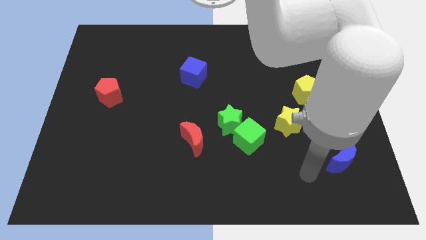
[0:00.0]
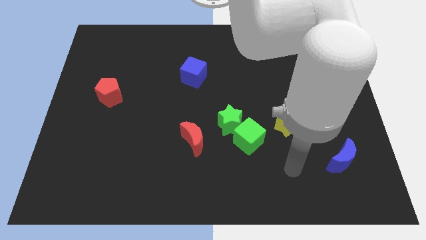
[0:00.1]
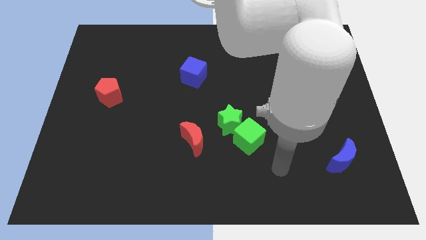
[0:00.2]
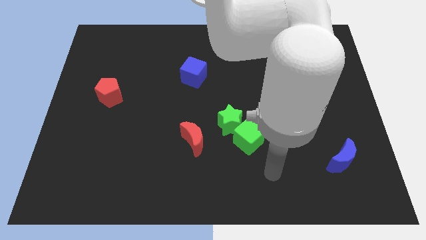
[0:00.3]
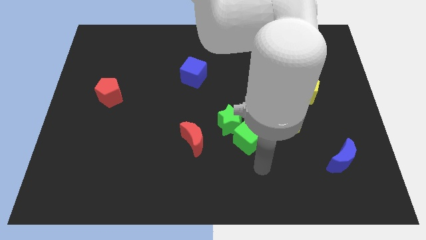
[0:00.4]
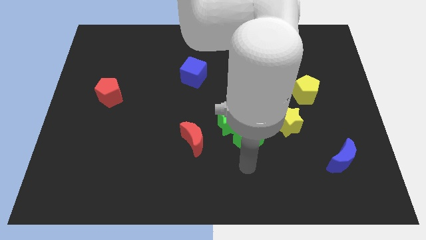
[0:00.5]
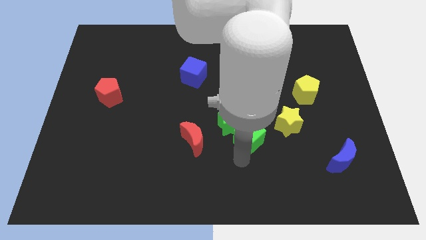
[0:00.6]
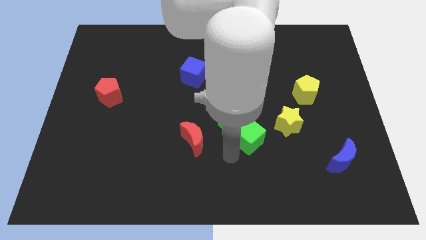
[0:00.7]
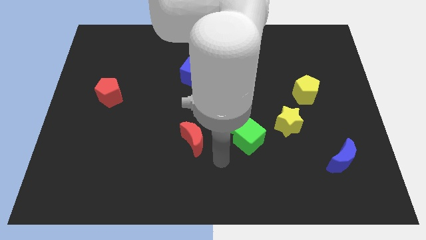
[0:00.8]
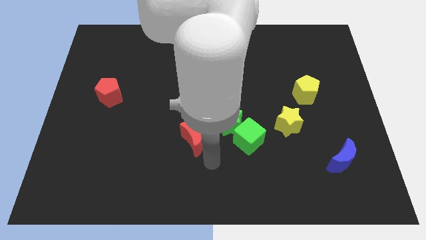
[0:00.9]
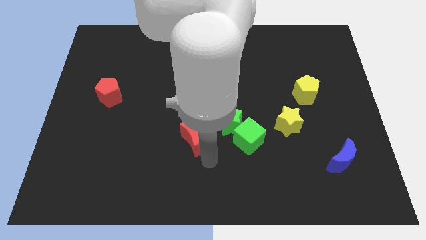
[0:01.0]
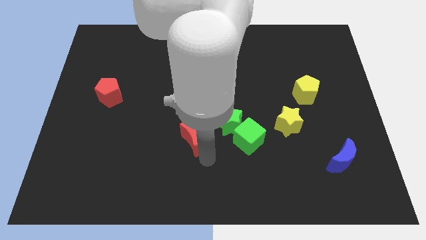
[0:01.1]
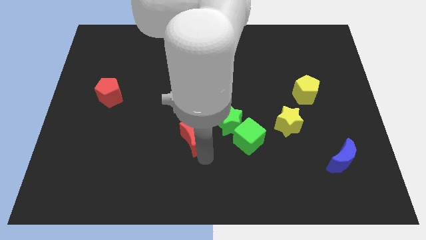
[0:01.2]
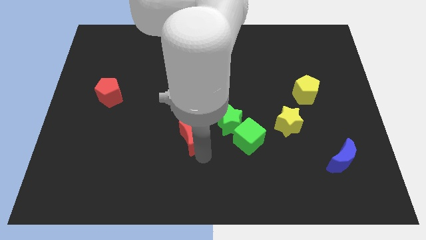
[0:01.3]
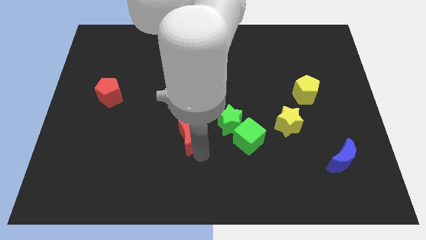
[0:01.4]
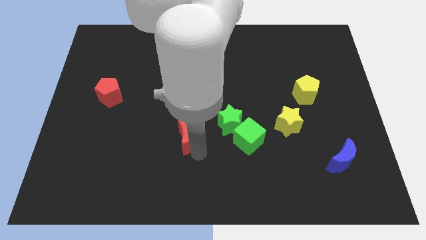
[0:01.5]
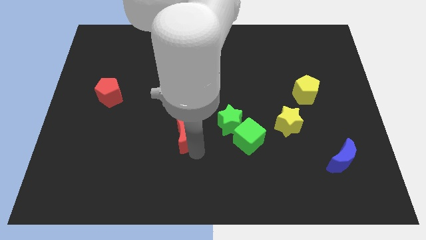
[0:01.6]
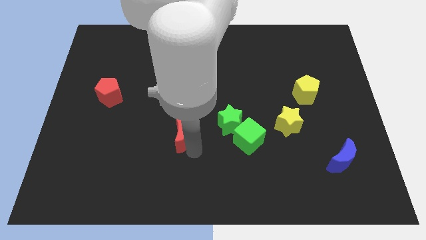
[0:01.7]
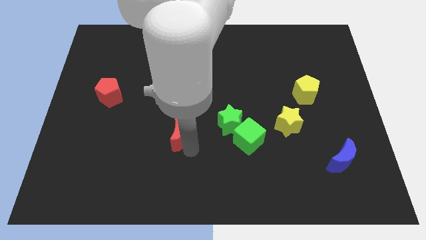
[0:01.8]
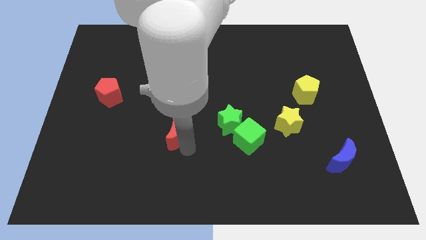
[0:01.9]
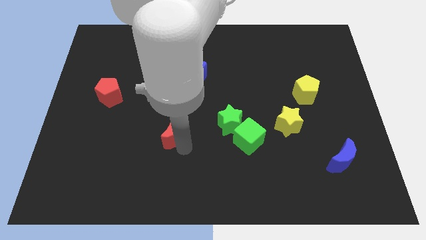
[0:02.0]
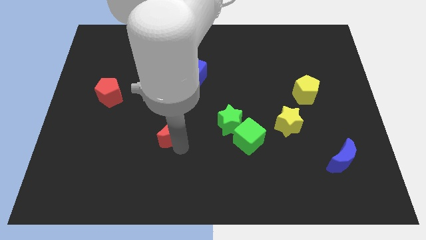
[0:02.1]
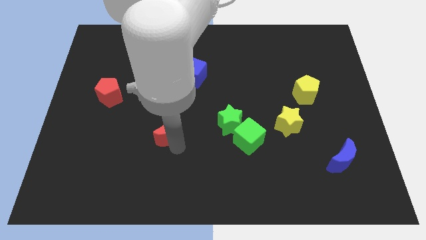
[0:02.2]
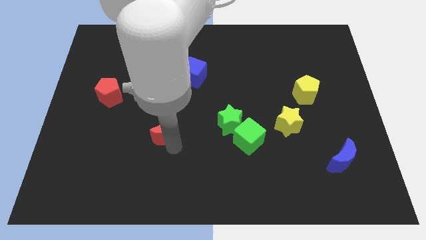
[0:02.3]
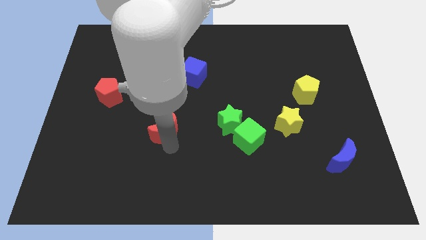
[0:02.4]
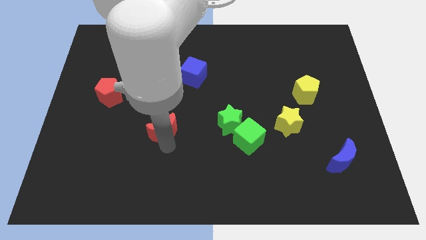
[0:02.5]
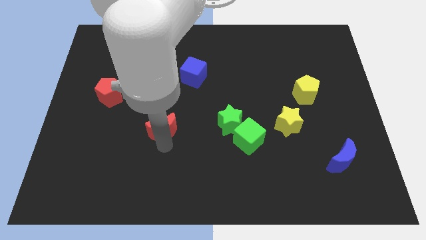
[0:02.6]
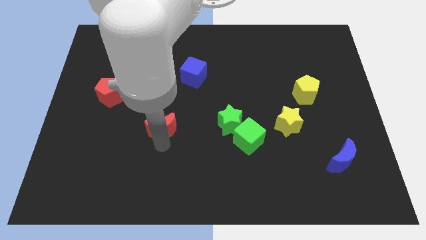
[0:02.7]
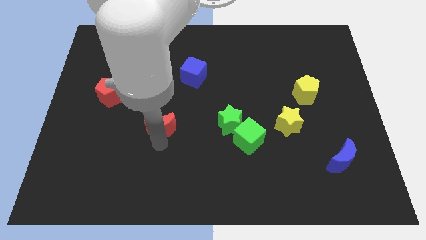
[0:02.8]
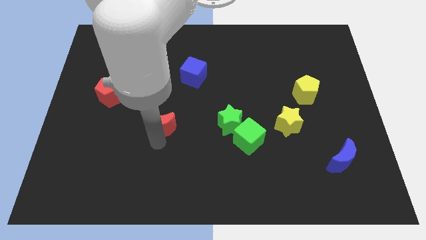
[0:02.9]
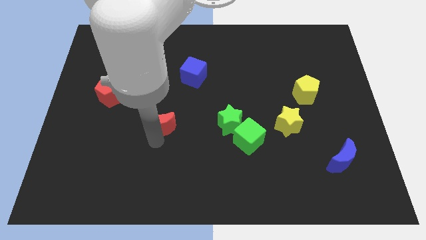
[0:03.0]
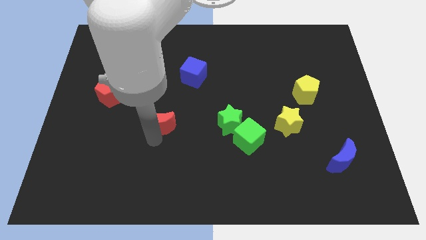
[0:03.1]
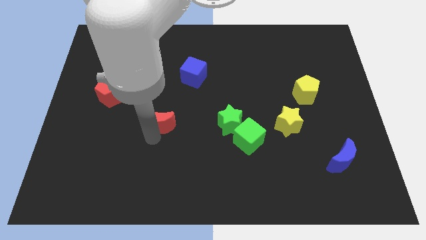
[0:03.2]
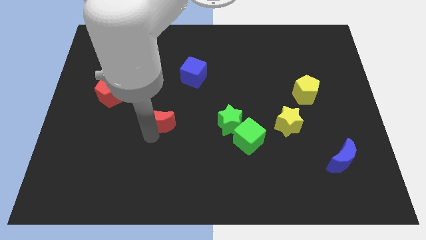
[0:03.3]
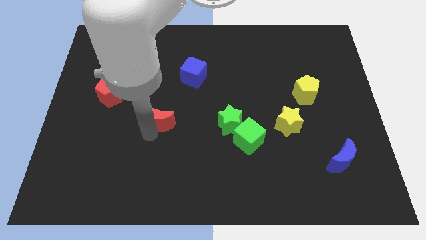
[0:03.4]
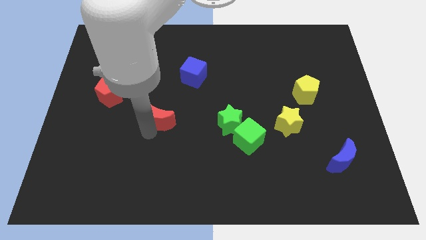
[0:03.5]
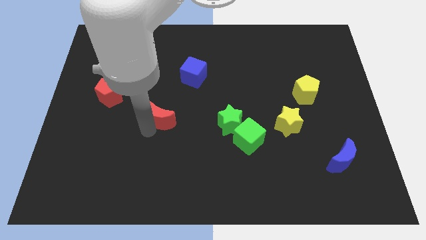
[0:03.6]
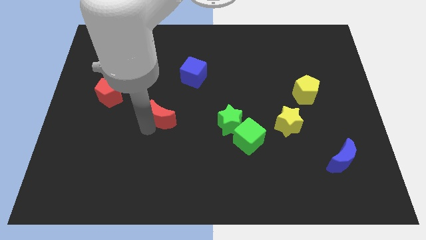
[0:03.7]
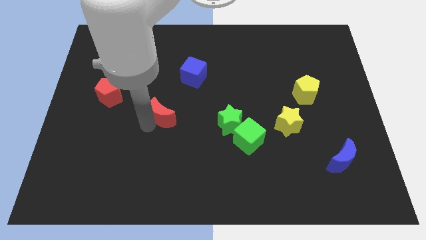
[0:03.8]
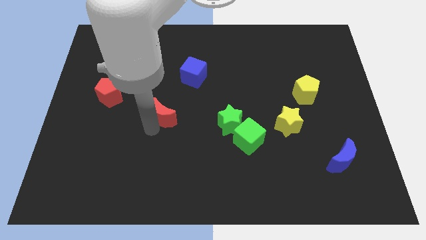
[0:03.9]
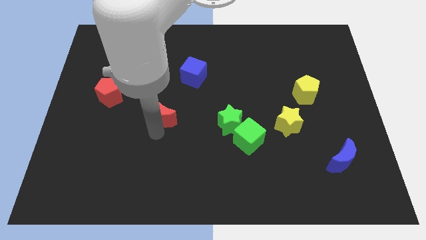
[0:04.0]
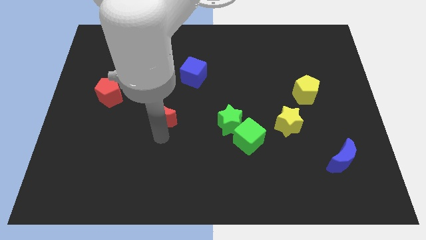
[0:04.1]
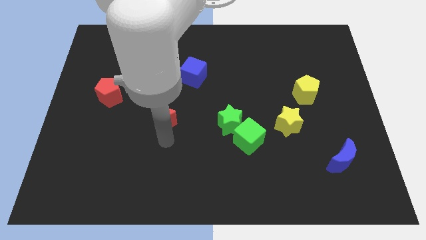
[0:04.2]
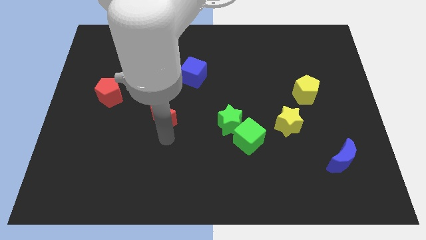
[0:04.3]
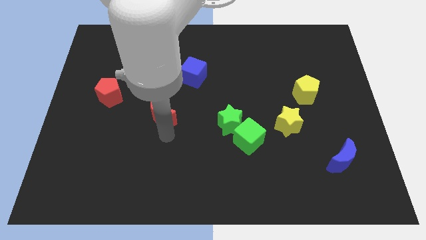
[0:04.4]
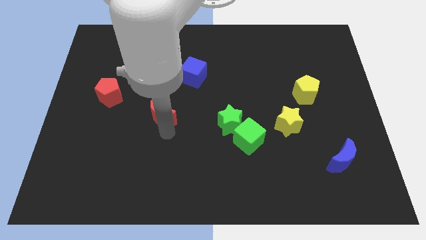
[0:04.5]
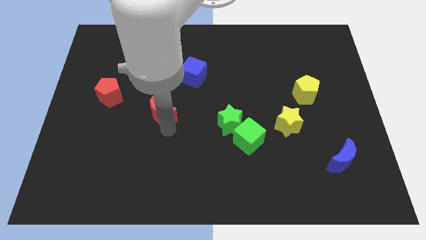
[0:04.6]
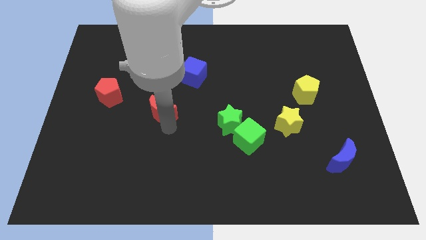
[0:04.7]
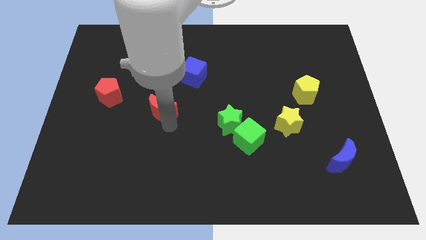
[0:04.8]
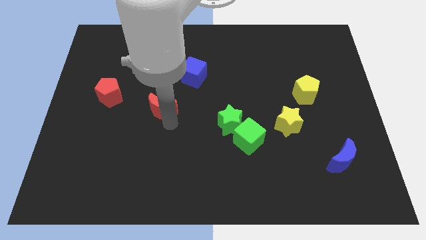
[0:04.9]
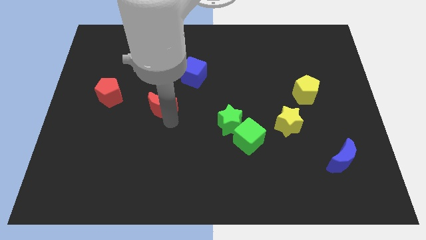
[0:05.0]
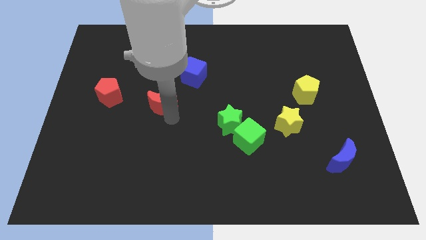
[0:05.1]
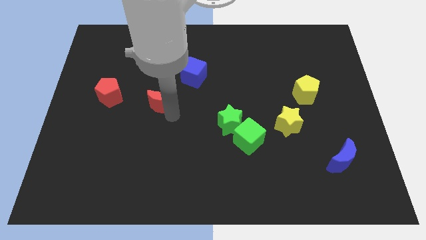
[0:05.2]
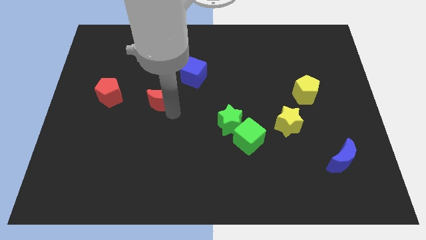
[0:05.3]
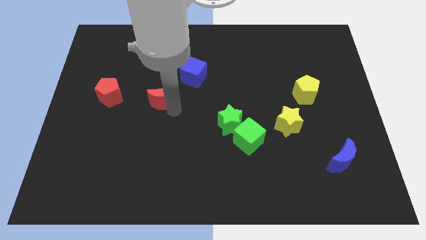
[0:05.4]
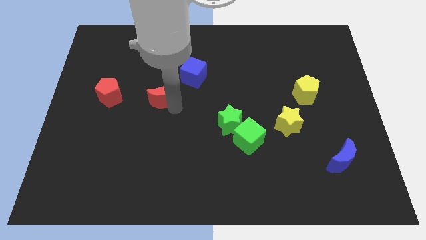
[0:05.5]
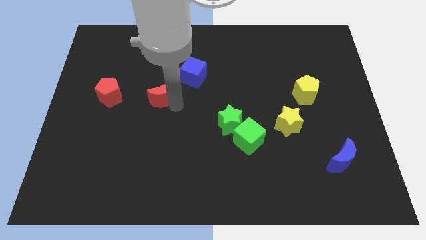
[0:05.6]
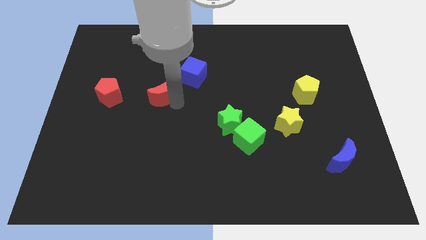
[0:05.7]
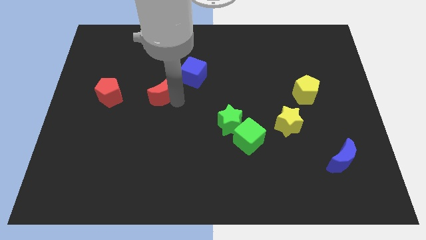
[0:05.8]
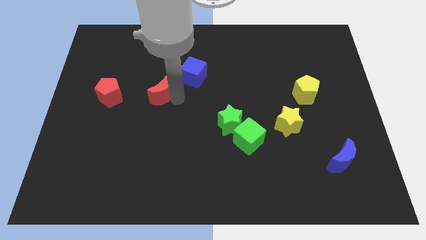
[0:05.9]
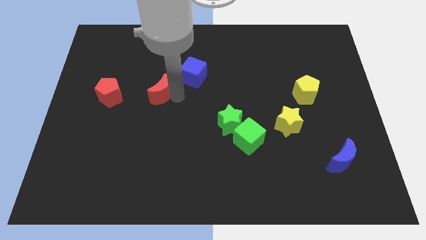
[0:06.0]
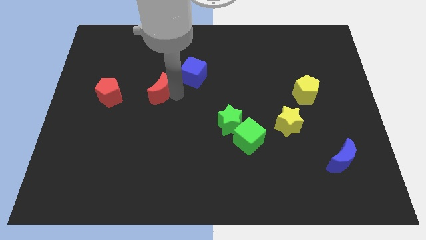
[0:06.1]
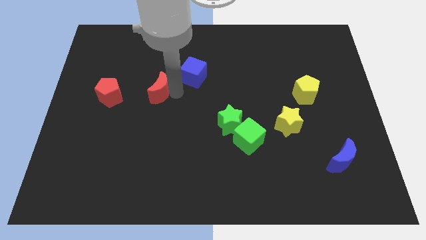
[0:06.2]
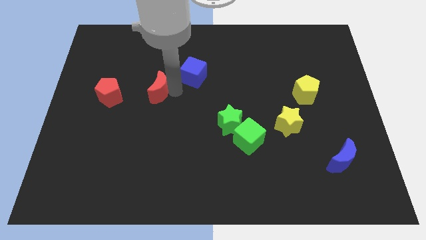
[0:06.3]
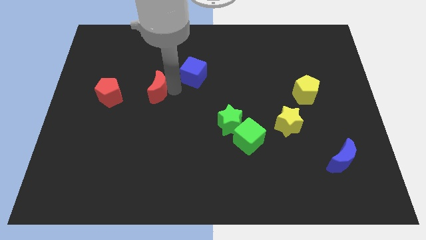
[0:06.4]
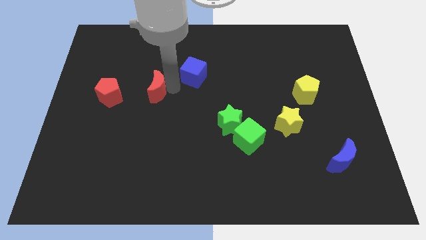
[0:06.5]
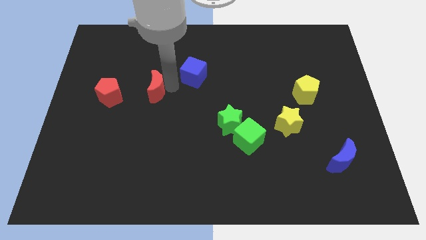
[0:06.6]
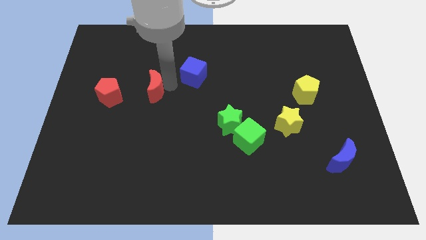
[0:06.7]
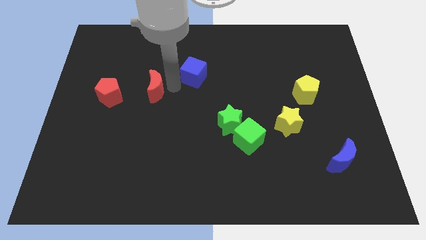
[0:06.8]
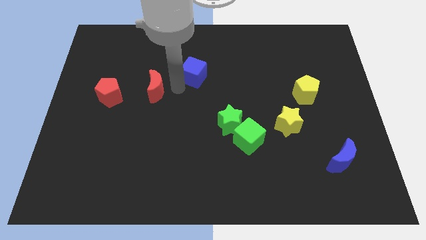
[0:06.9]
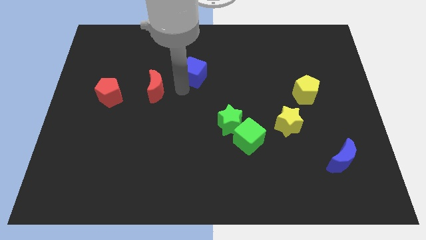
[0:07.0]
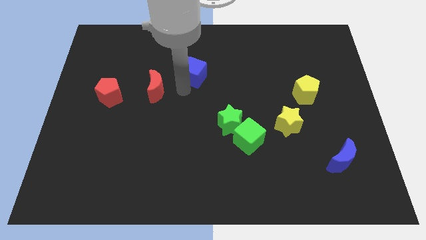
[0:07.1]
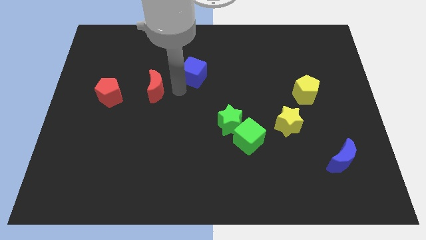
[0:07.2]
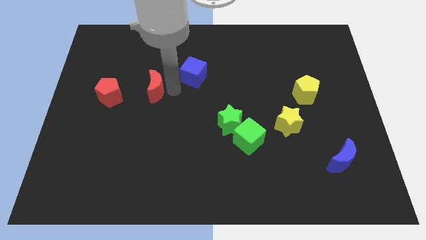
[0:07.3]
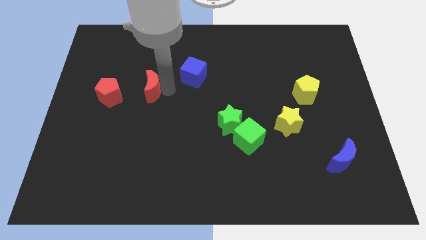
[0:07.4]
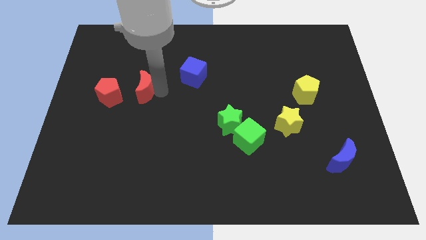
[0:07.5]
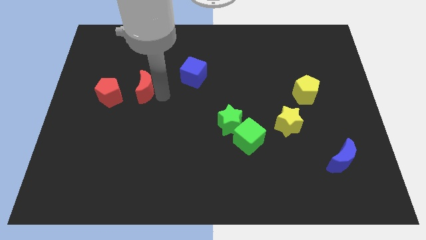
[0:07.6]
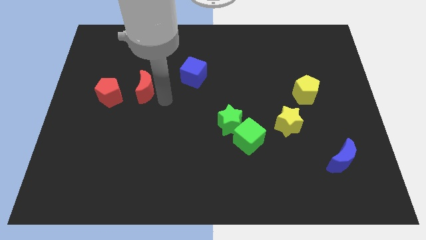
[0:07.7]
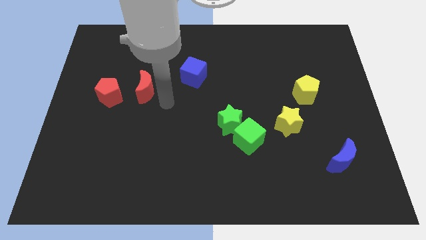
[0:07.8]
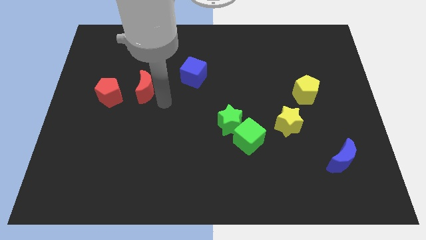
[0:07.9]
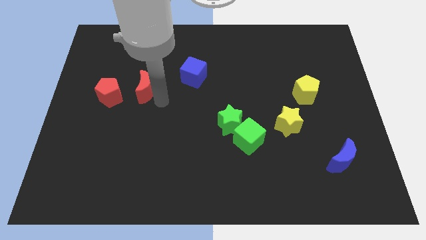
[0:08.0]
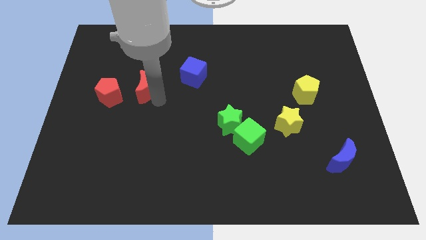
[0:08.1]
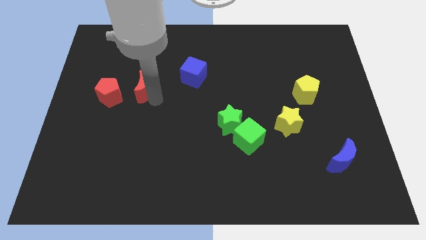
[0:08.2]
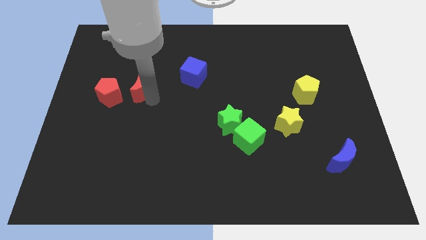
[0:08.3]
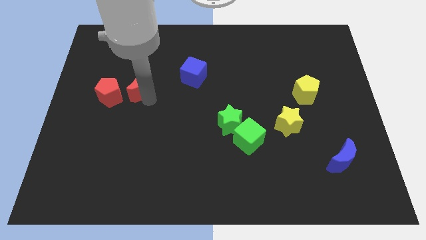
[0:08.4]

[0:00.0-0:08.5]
move the red moon diagonally up and to the left

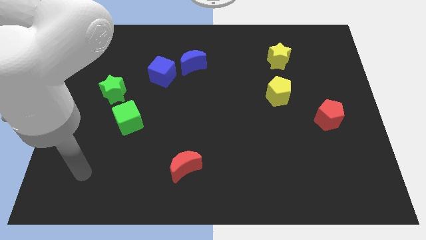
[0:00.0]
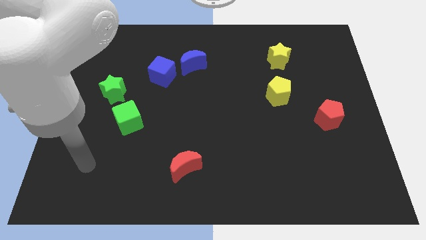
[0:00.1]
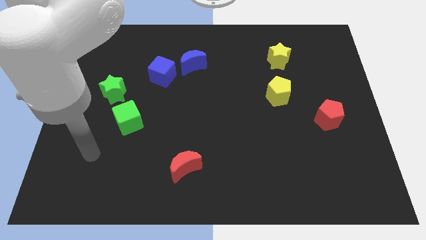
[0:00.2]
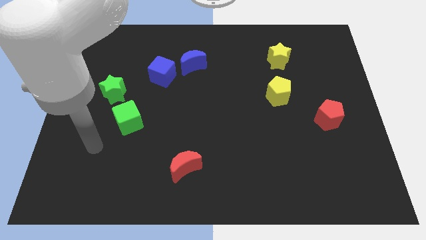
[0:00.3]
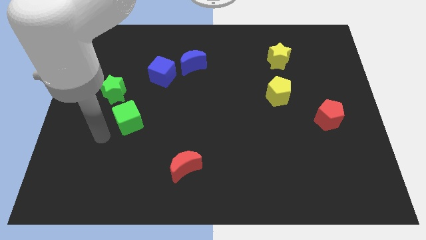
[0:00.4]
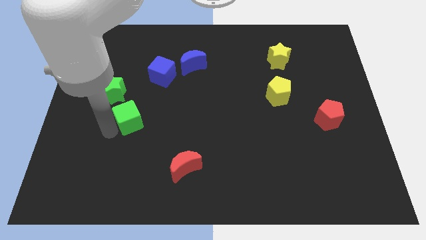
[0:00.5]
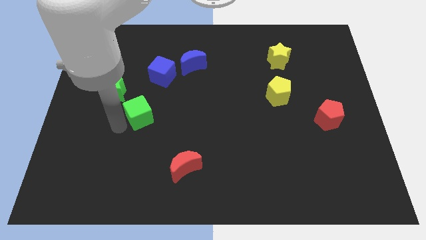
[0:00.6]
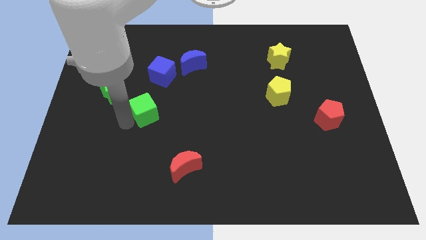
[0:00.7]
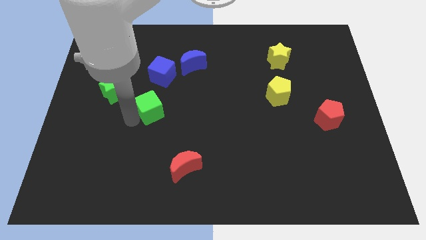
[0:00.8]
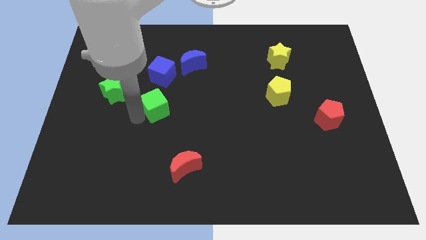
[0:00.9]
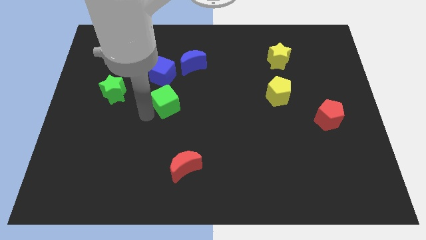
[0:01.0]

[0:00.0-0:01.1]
move the green cube somewhat diagonally upwards and right
